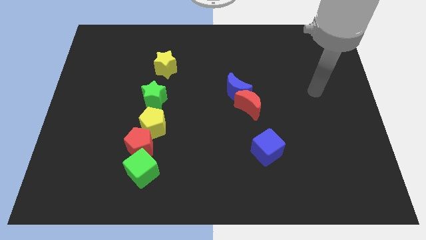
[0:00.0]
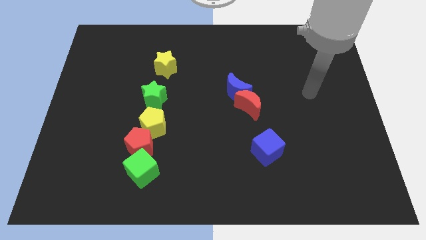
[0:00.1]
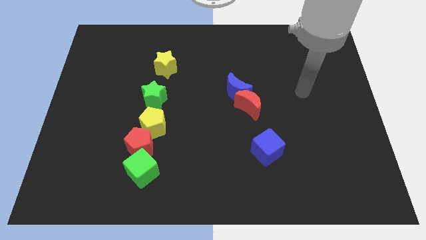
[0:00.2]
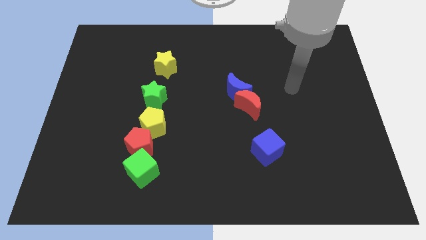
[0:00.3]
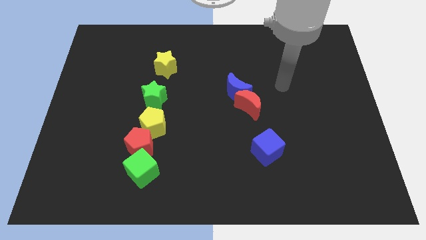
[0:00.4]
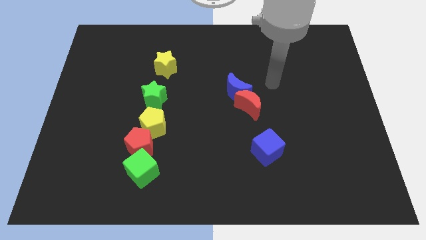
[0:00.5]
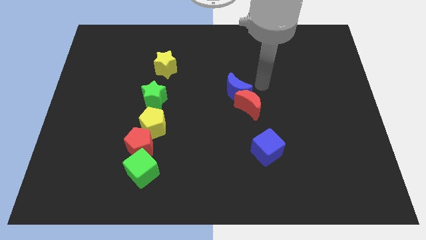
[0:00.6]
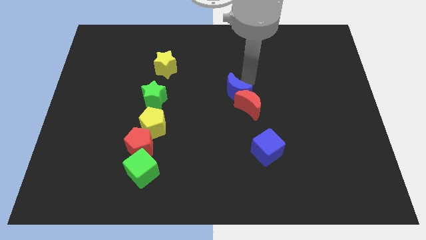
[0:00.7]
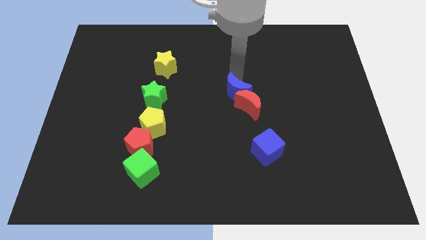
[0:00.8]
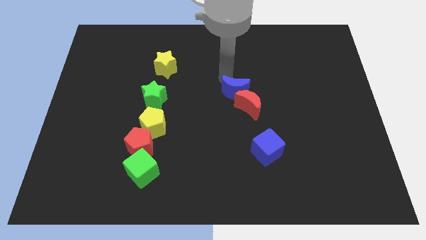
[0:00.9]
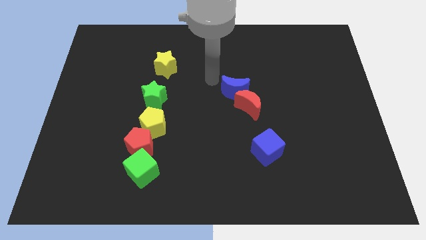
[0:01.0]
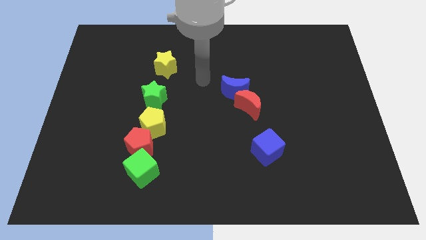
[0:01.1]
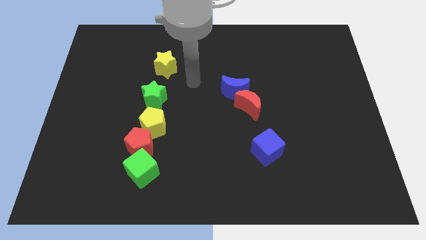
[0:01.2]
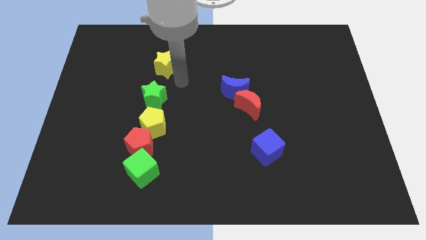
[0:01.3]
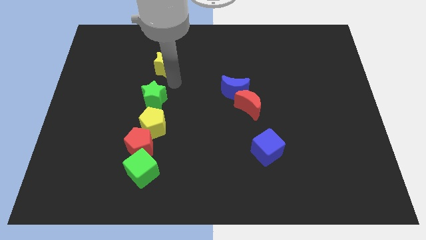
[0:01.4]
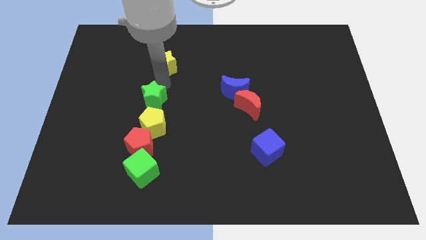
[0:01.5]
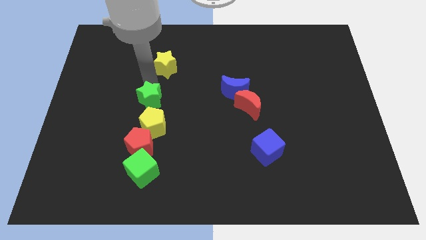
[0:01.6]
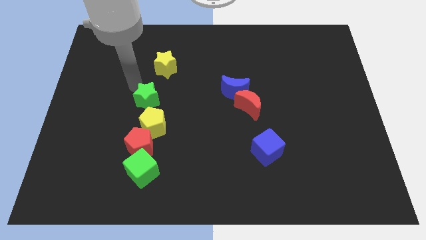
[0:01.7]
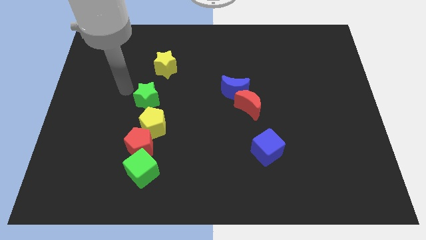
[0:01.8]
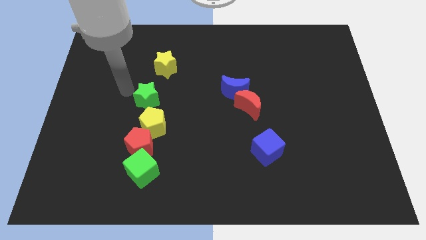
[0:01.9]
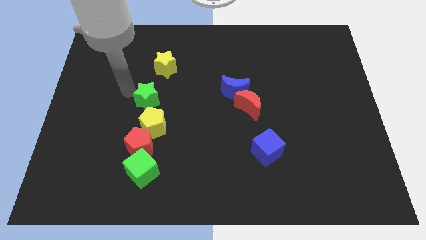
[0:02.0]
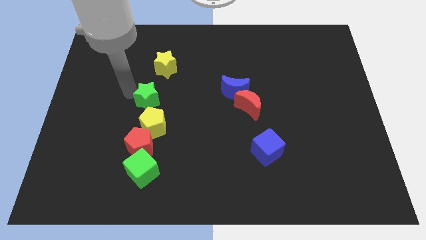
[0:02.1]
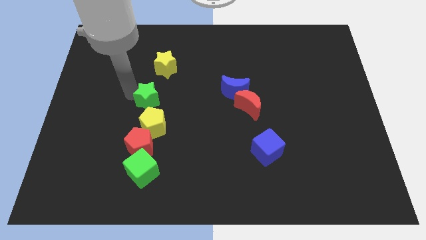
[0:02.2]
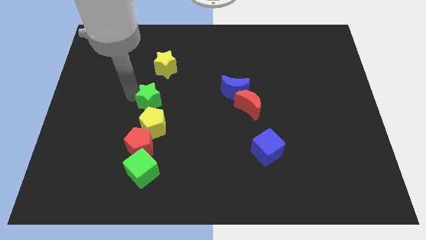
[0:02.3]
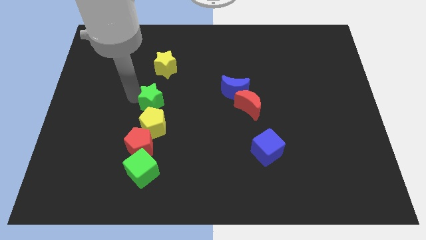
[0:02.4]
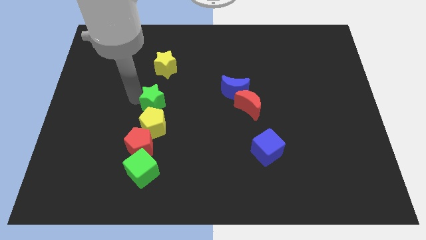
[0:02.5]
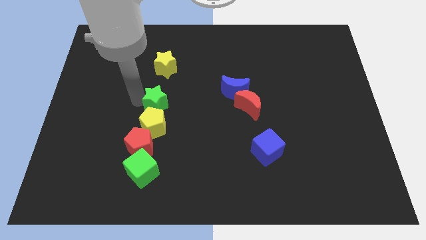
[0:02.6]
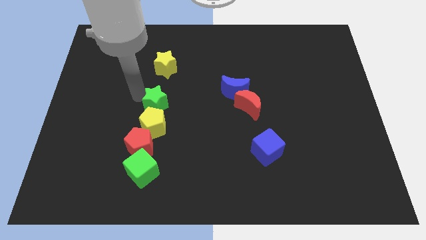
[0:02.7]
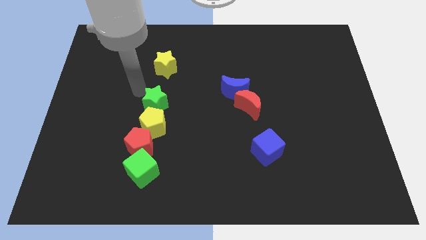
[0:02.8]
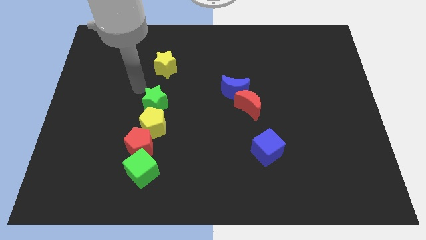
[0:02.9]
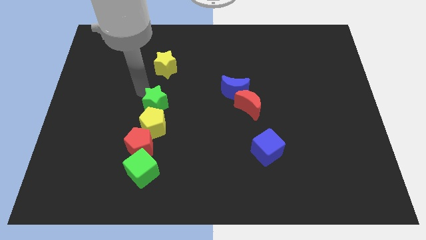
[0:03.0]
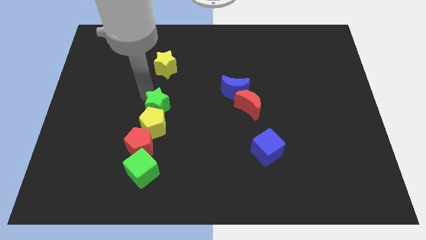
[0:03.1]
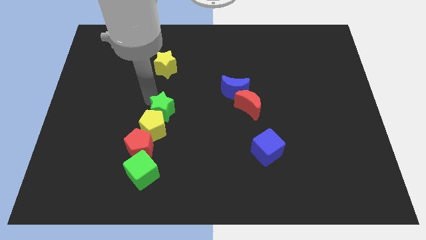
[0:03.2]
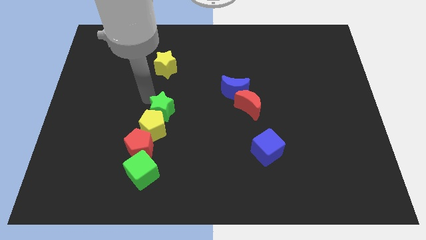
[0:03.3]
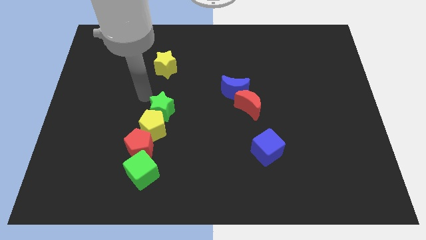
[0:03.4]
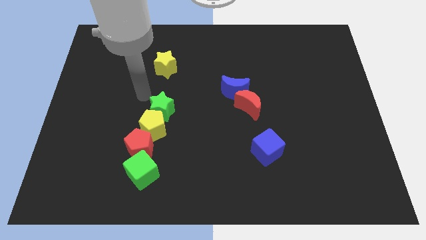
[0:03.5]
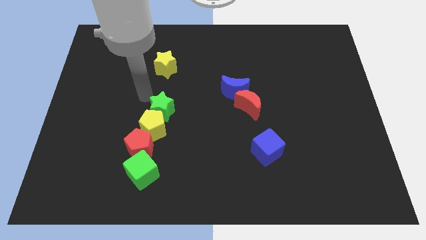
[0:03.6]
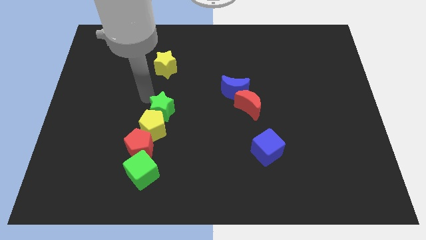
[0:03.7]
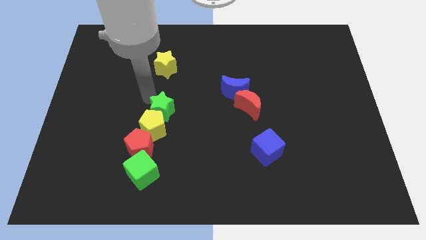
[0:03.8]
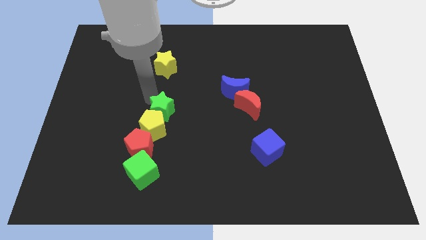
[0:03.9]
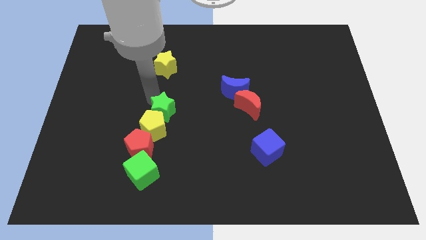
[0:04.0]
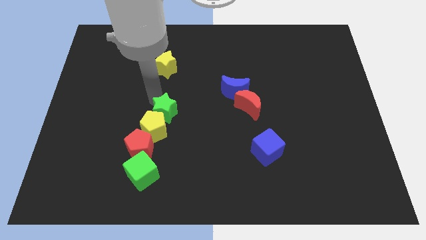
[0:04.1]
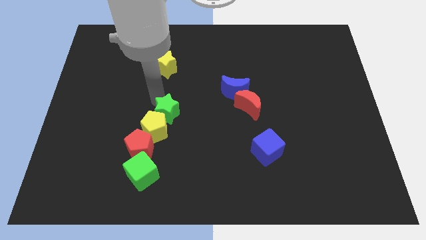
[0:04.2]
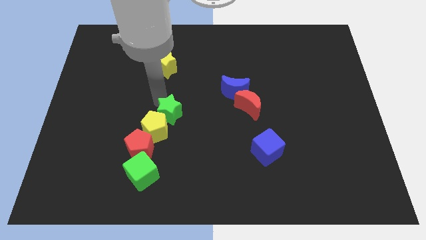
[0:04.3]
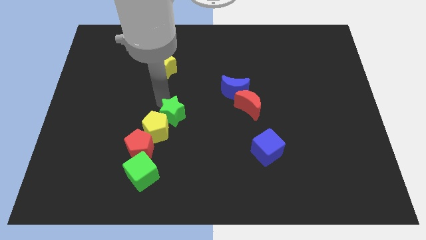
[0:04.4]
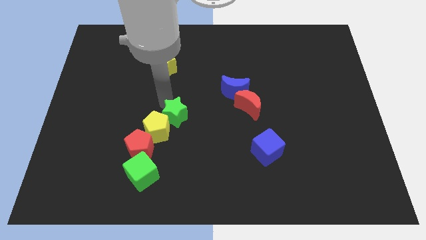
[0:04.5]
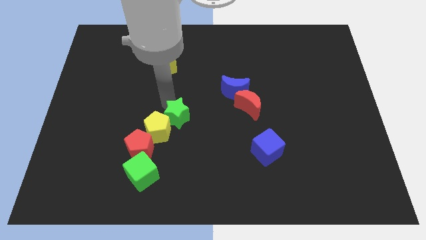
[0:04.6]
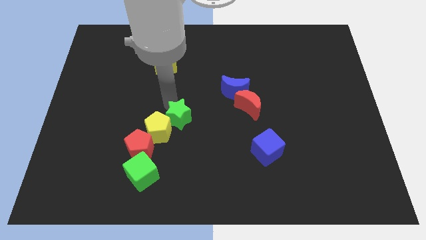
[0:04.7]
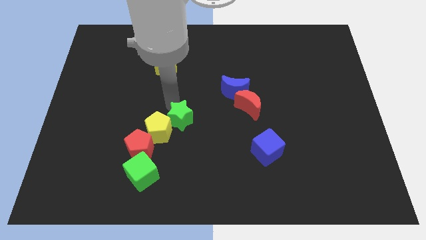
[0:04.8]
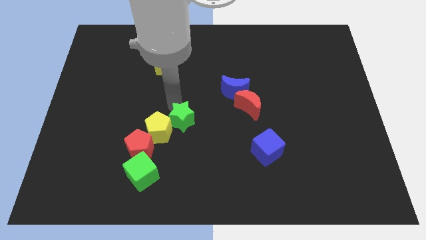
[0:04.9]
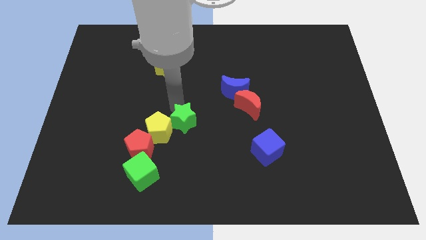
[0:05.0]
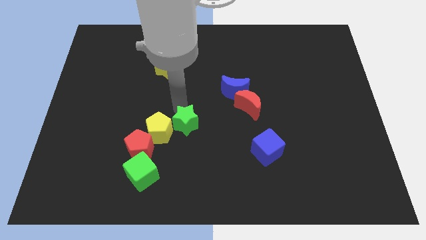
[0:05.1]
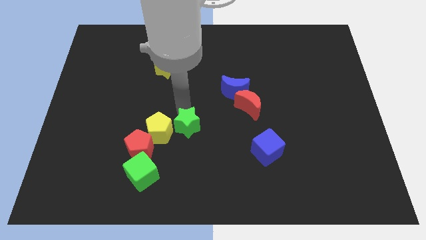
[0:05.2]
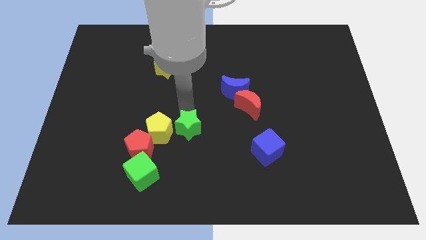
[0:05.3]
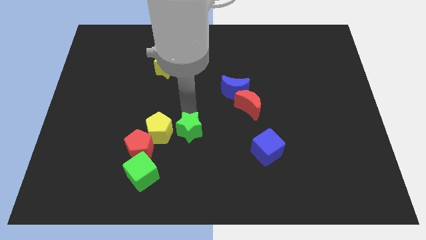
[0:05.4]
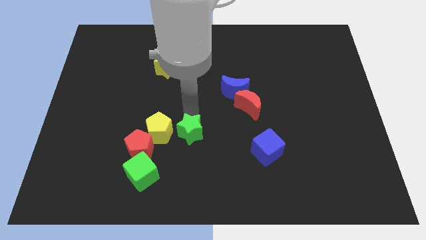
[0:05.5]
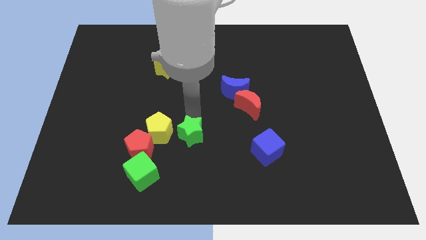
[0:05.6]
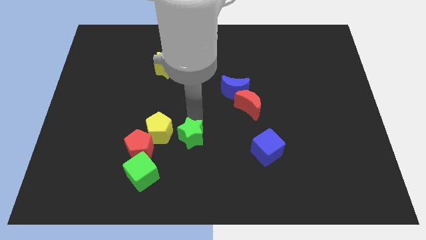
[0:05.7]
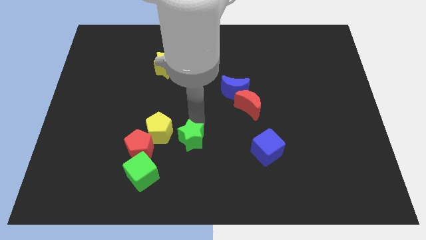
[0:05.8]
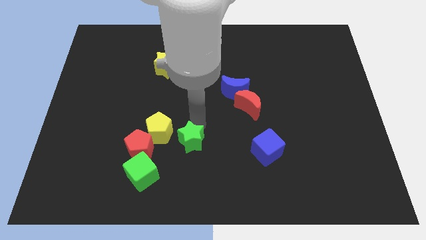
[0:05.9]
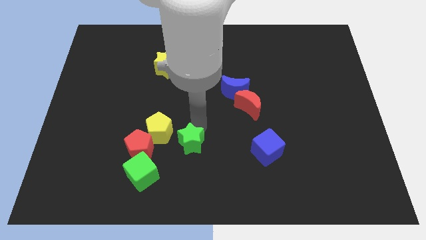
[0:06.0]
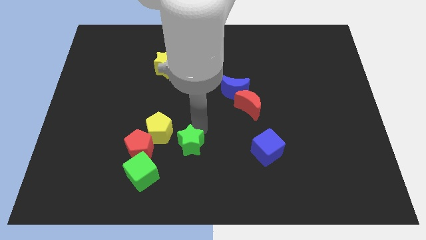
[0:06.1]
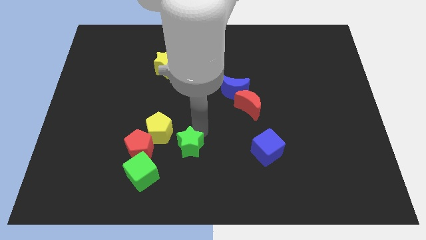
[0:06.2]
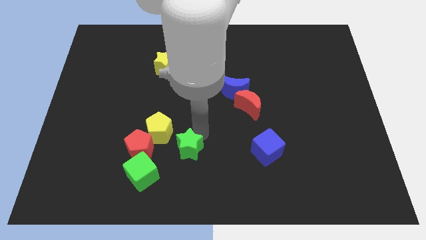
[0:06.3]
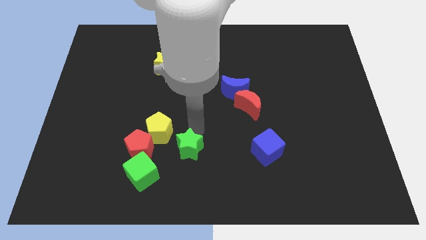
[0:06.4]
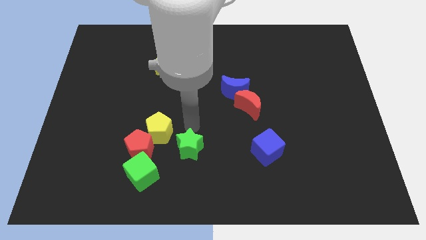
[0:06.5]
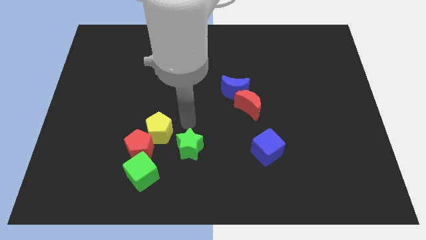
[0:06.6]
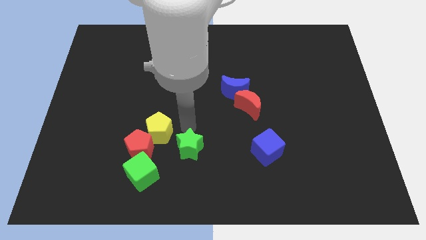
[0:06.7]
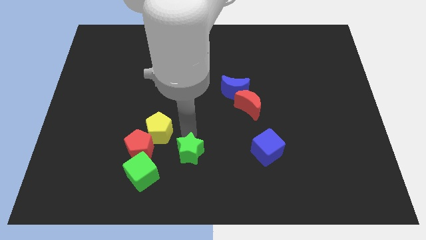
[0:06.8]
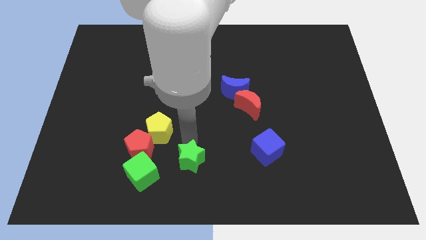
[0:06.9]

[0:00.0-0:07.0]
push the green star right of the green cube
